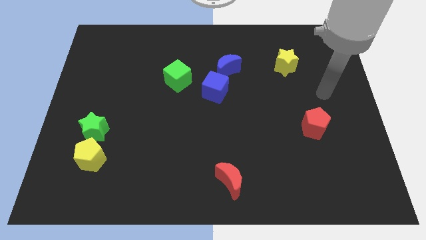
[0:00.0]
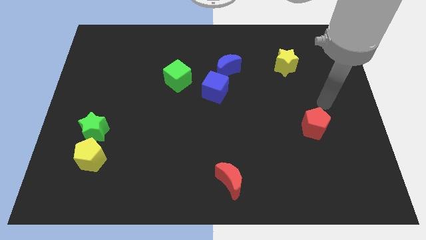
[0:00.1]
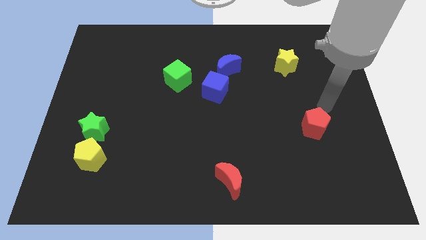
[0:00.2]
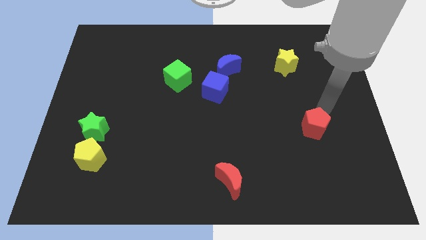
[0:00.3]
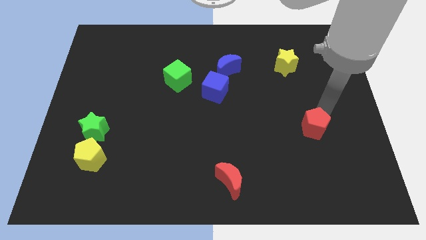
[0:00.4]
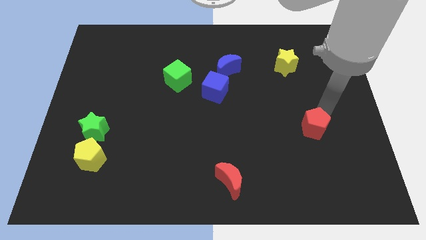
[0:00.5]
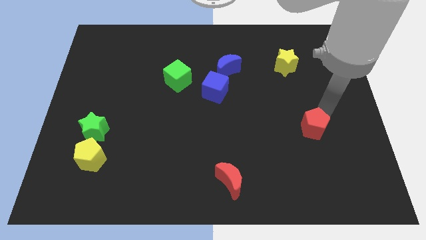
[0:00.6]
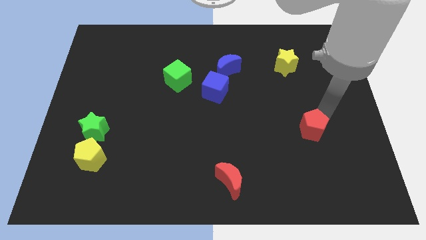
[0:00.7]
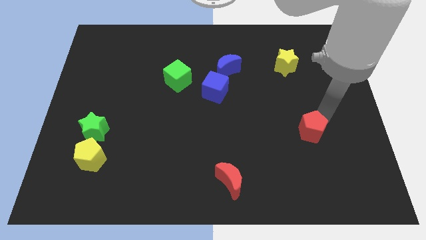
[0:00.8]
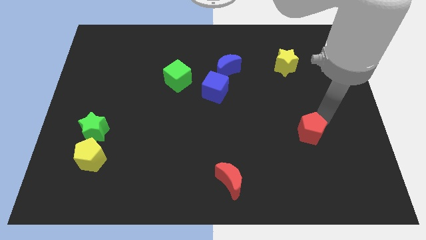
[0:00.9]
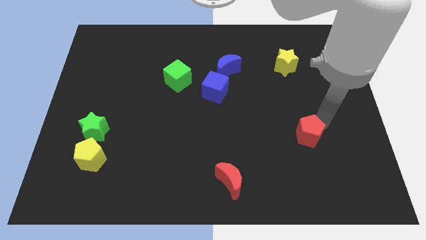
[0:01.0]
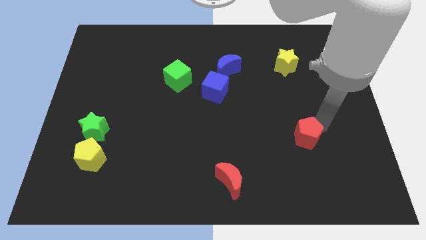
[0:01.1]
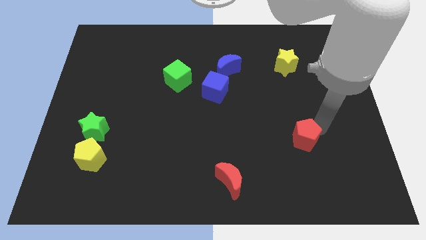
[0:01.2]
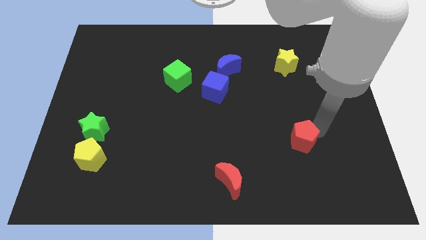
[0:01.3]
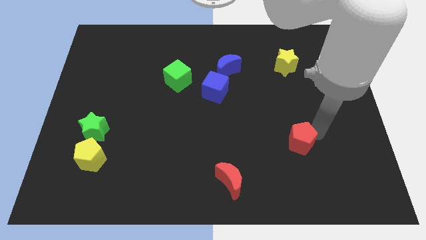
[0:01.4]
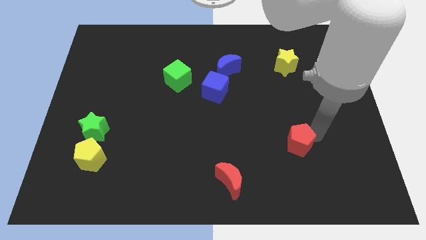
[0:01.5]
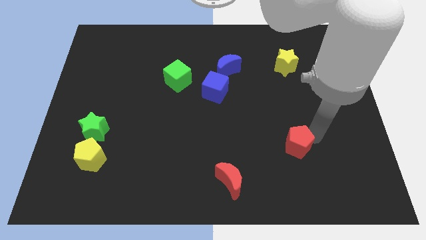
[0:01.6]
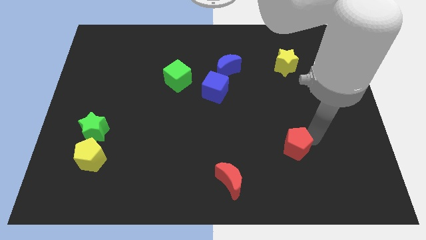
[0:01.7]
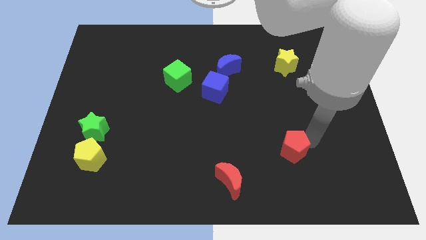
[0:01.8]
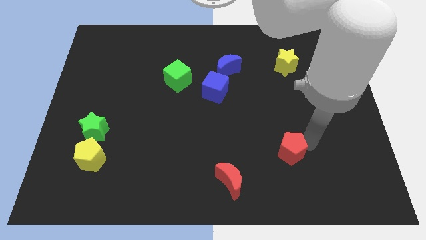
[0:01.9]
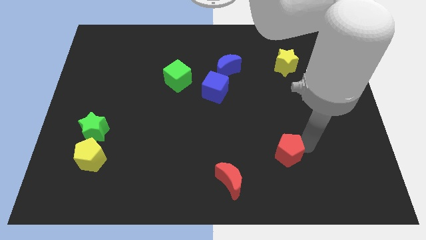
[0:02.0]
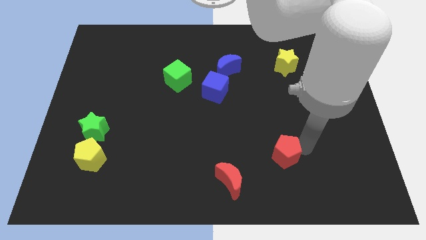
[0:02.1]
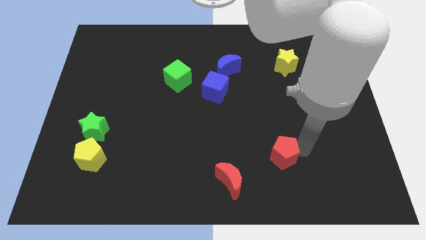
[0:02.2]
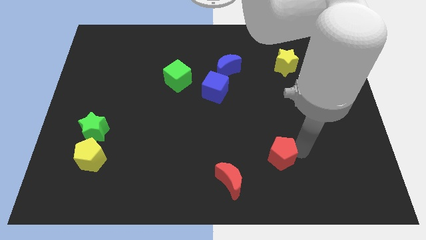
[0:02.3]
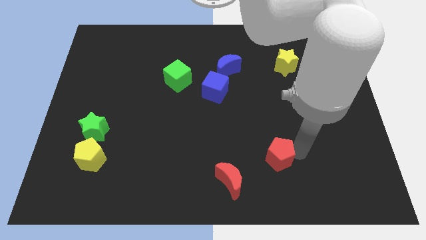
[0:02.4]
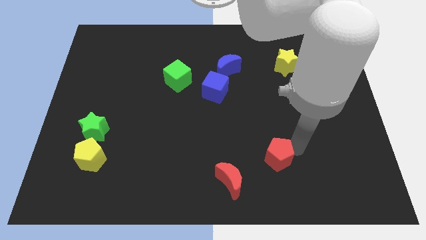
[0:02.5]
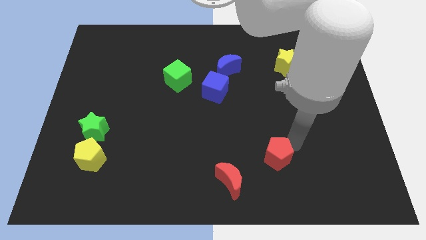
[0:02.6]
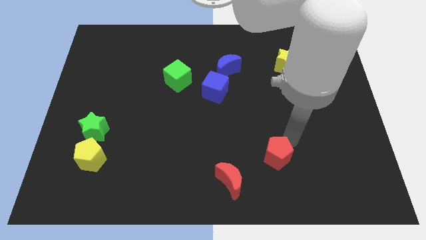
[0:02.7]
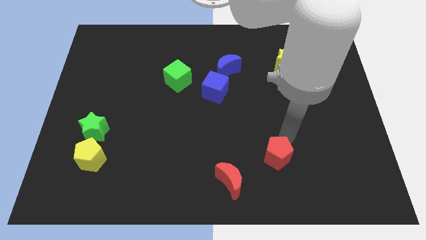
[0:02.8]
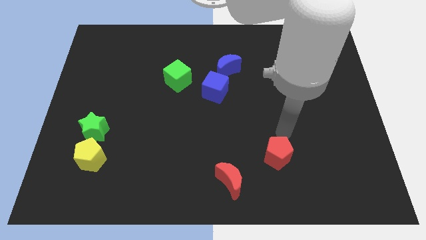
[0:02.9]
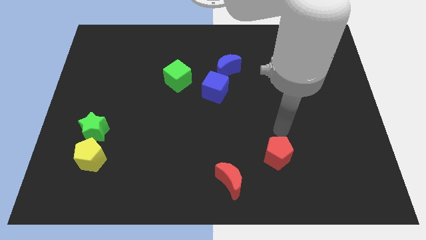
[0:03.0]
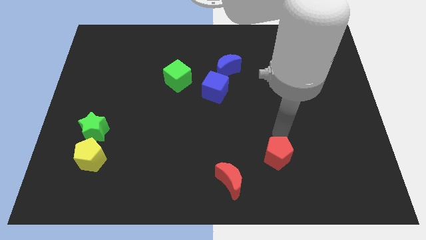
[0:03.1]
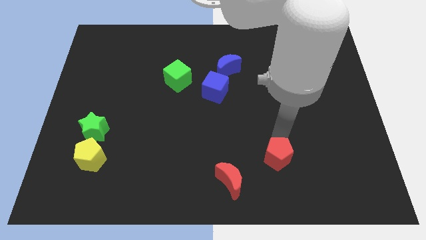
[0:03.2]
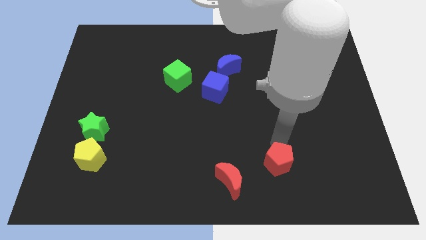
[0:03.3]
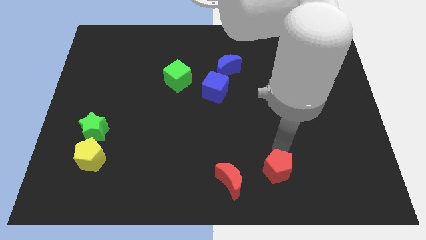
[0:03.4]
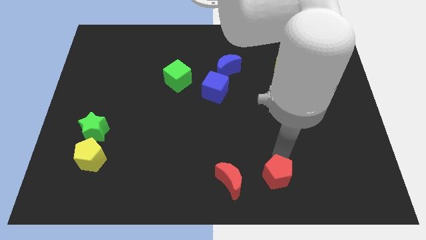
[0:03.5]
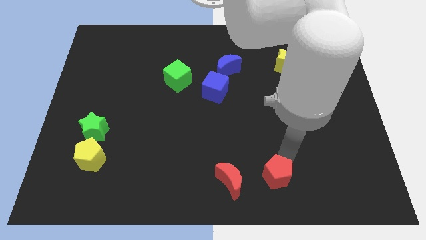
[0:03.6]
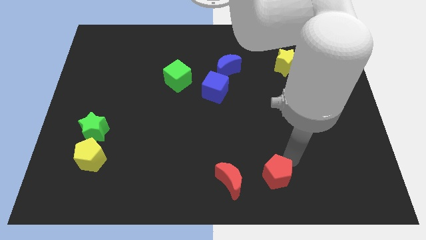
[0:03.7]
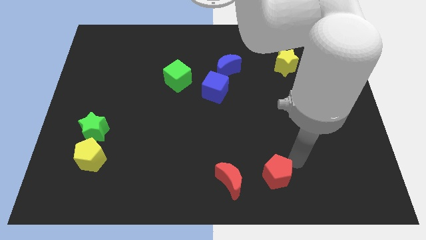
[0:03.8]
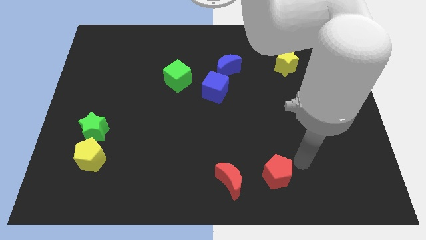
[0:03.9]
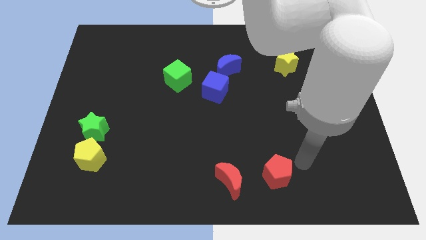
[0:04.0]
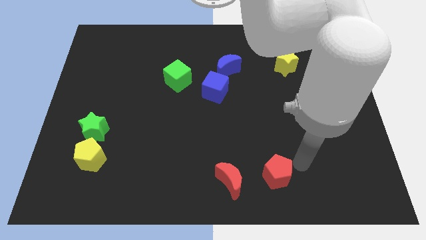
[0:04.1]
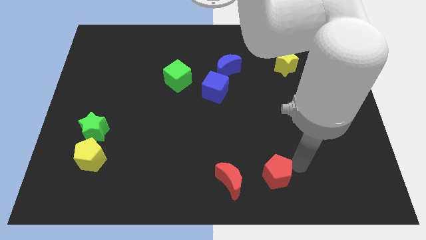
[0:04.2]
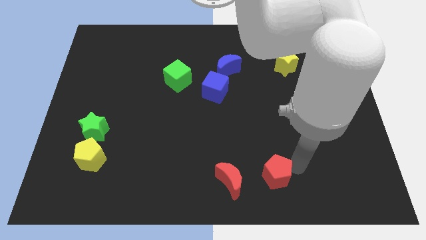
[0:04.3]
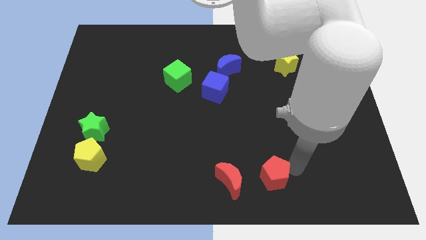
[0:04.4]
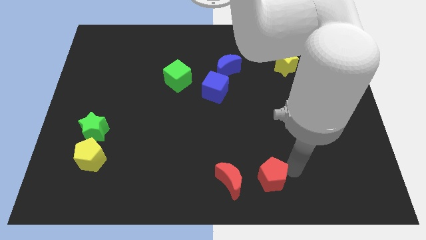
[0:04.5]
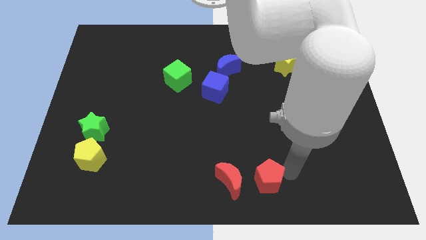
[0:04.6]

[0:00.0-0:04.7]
move the red pentagon to the bottom side

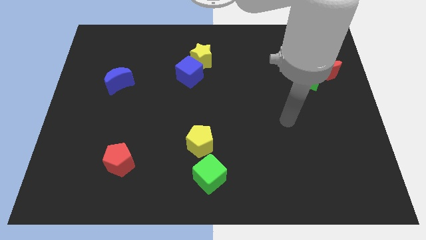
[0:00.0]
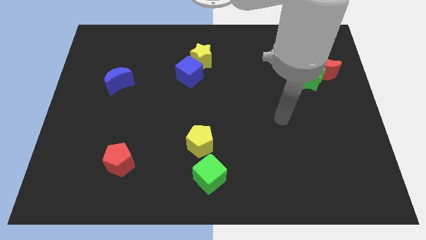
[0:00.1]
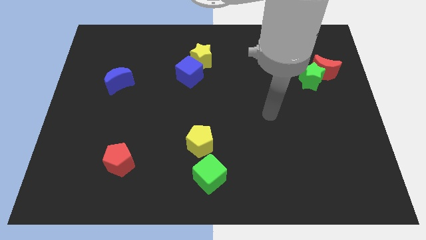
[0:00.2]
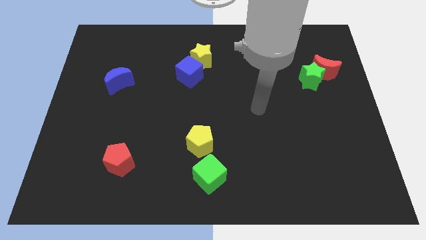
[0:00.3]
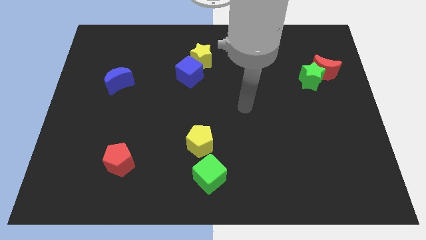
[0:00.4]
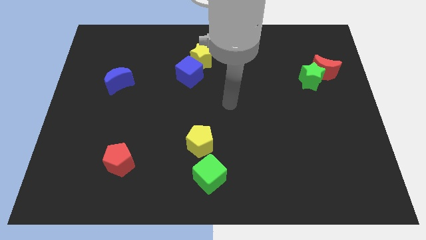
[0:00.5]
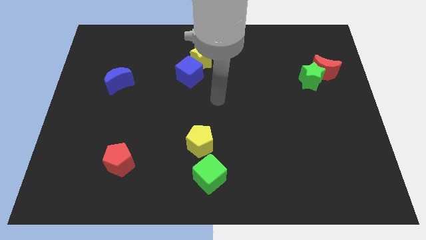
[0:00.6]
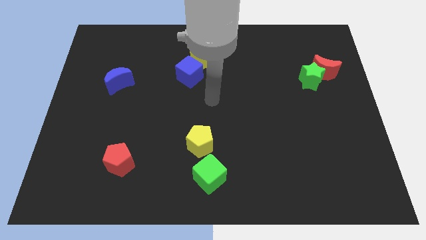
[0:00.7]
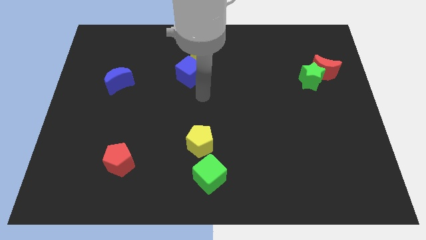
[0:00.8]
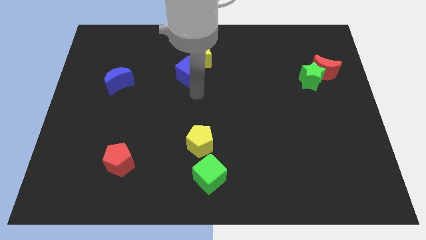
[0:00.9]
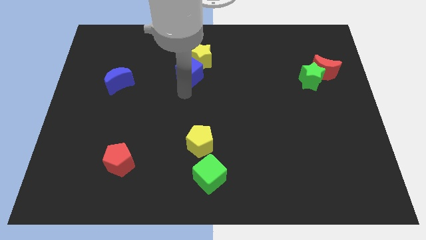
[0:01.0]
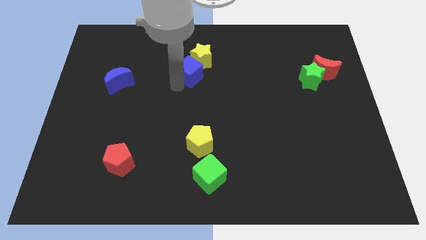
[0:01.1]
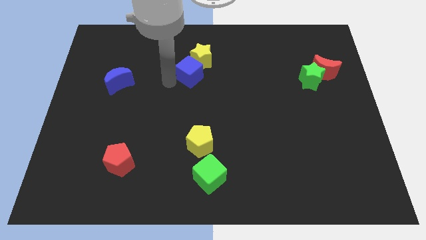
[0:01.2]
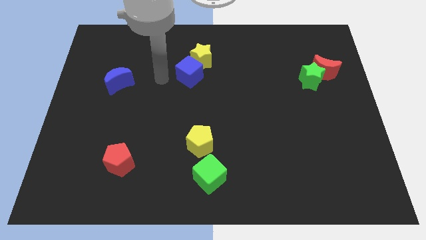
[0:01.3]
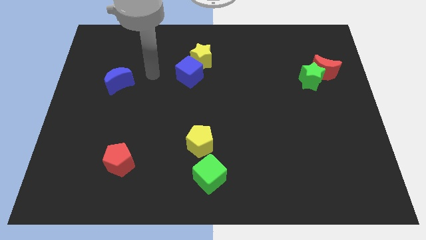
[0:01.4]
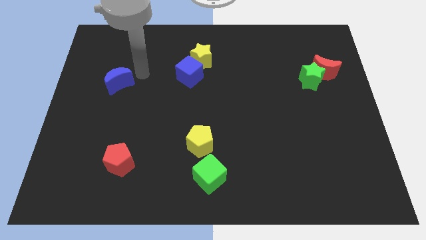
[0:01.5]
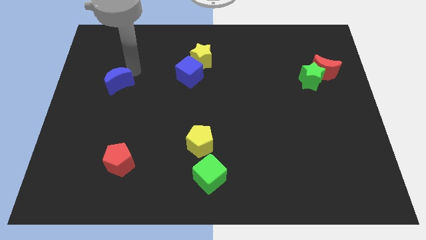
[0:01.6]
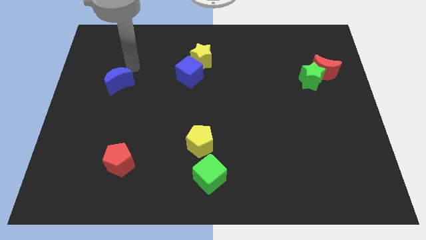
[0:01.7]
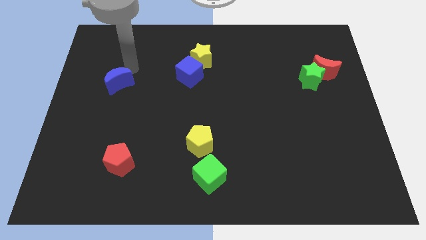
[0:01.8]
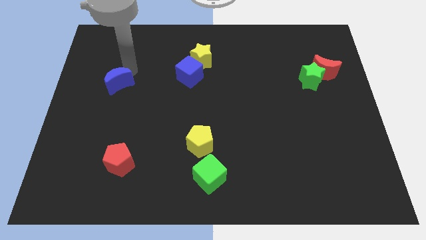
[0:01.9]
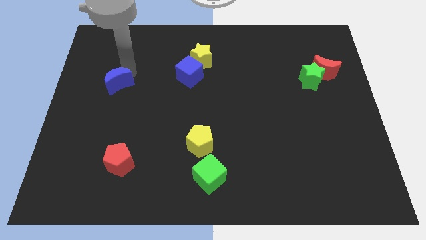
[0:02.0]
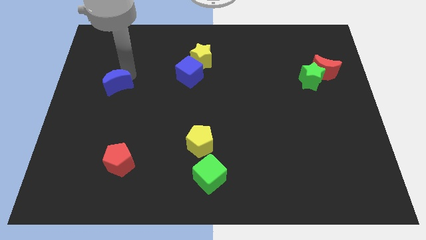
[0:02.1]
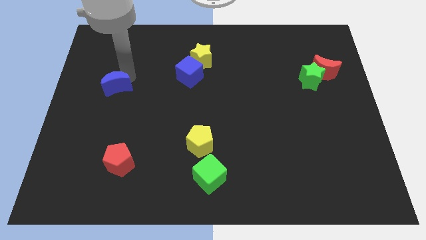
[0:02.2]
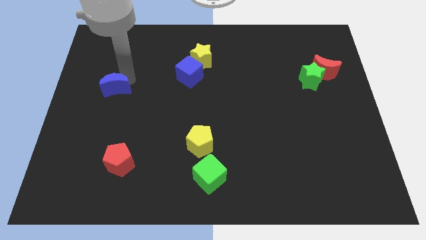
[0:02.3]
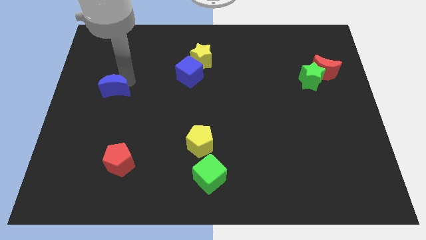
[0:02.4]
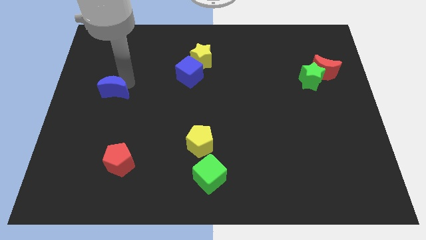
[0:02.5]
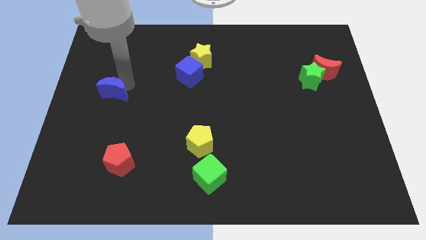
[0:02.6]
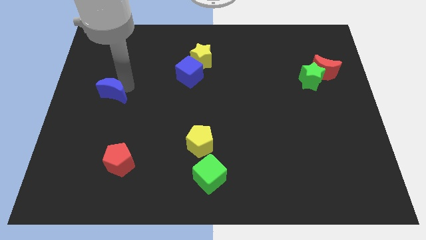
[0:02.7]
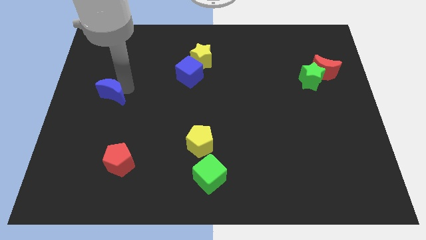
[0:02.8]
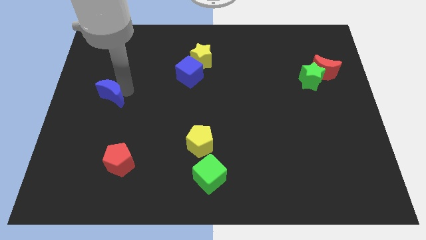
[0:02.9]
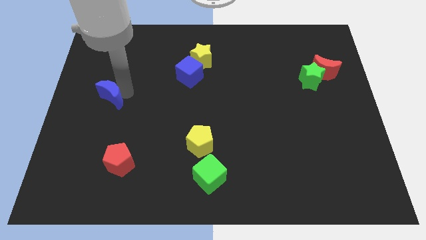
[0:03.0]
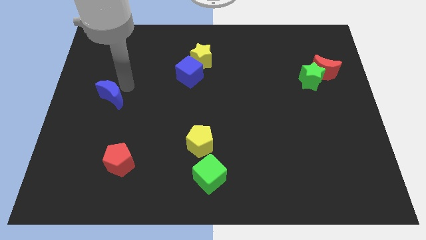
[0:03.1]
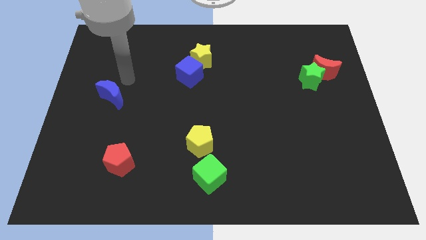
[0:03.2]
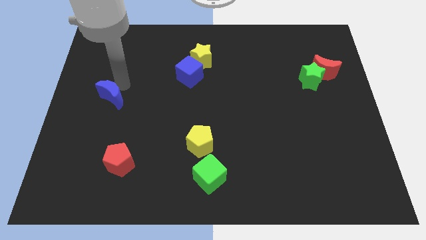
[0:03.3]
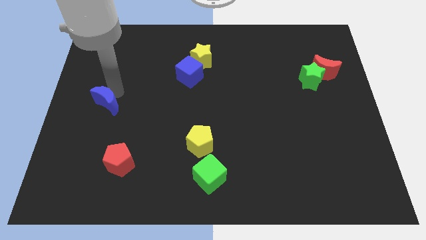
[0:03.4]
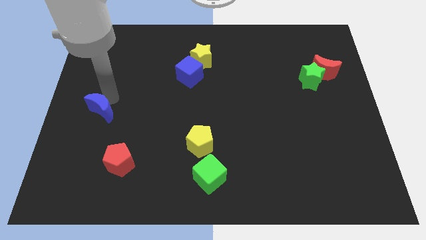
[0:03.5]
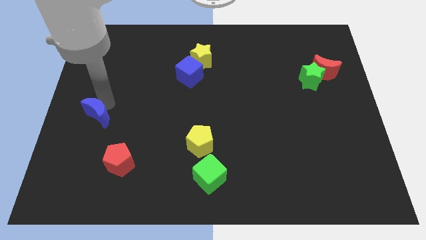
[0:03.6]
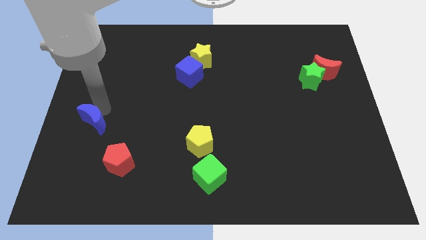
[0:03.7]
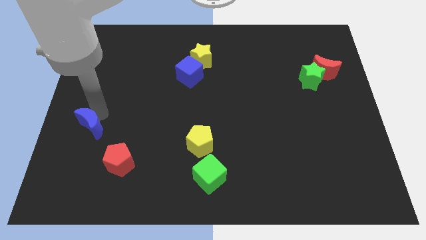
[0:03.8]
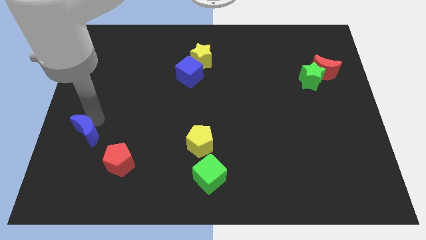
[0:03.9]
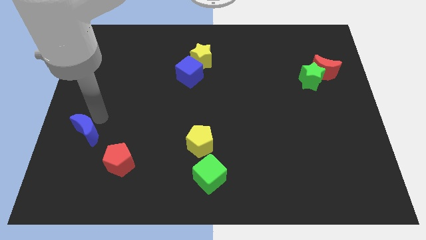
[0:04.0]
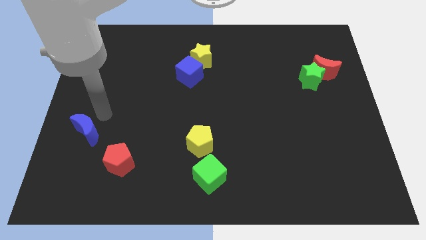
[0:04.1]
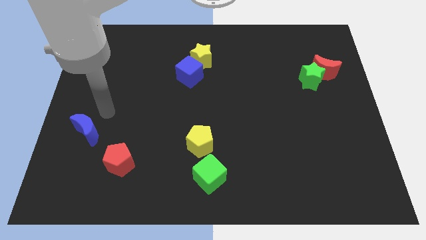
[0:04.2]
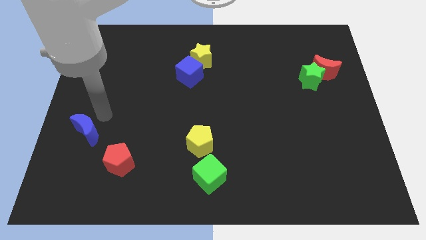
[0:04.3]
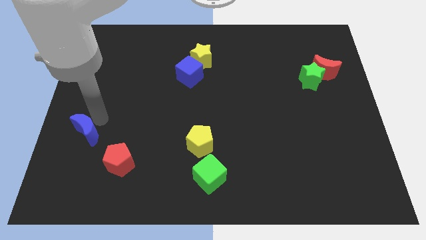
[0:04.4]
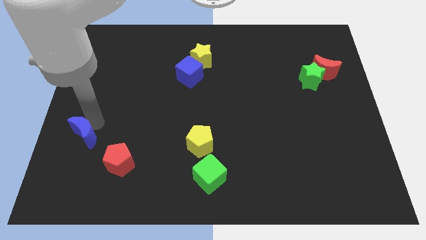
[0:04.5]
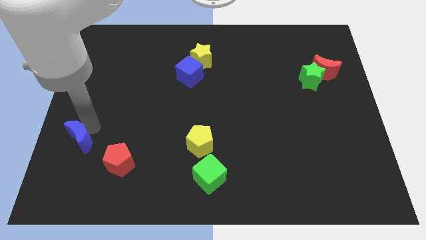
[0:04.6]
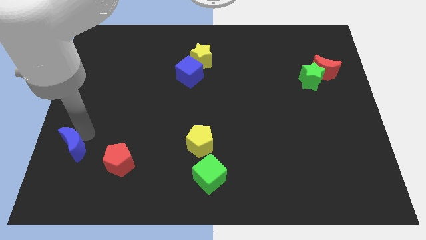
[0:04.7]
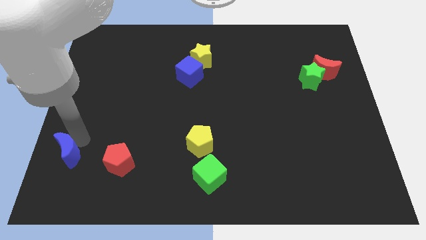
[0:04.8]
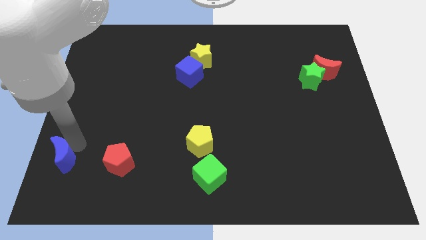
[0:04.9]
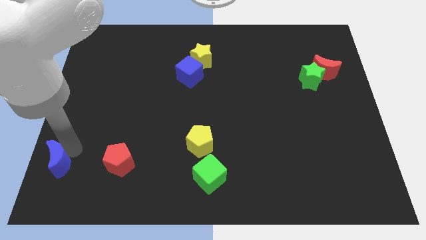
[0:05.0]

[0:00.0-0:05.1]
put the blue moon to the bottom left of the board
